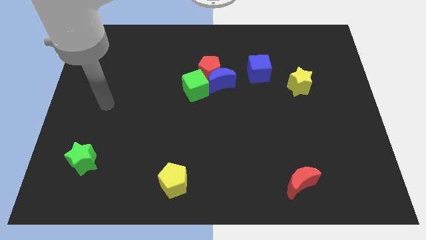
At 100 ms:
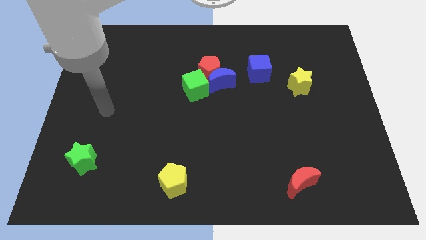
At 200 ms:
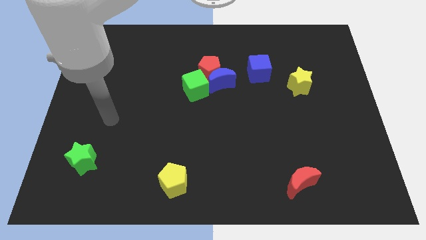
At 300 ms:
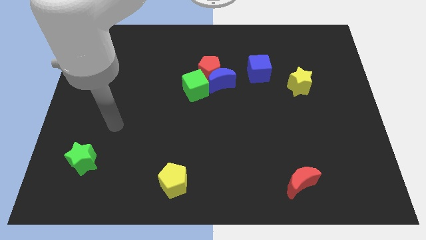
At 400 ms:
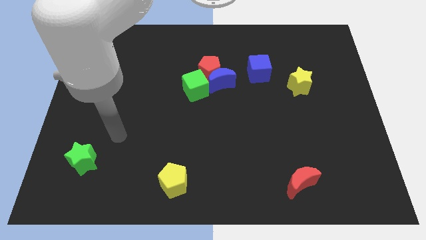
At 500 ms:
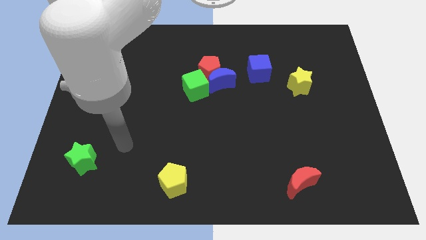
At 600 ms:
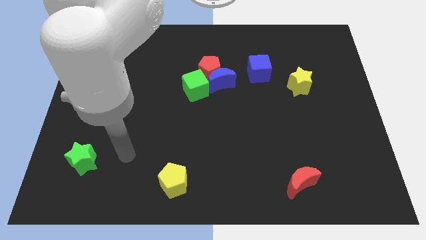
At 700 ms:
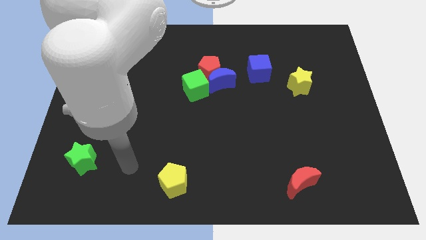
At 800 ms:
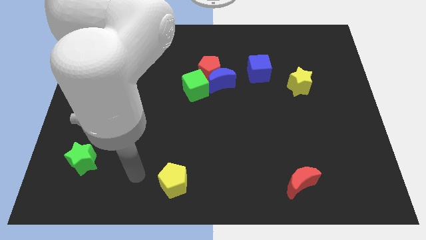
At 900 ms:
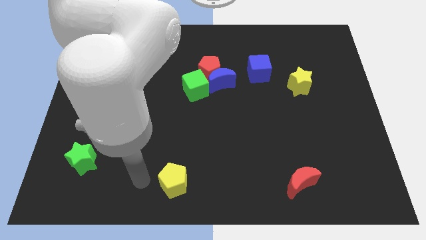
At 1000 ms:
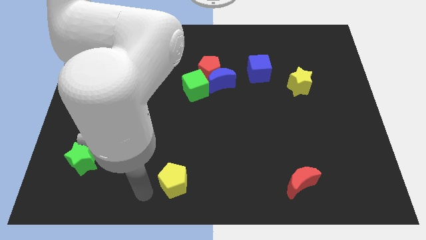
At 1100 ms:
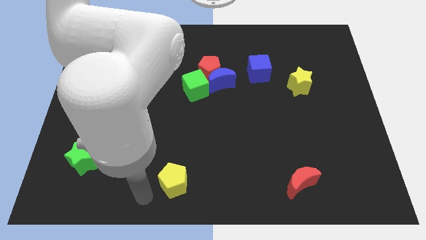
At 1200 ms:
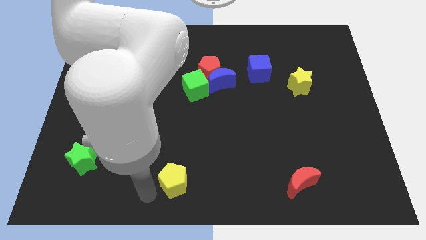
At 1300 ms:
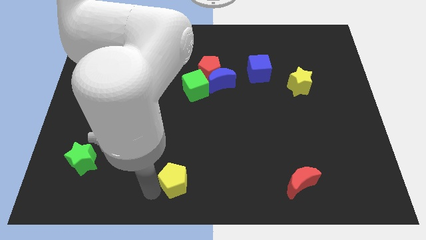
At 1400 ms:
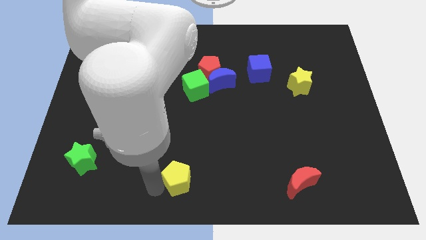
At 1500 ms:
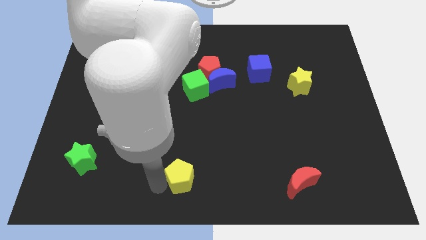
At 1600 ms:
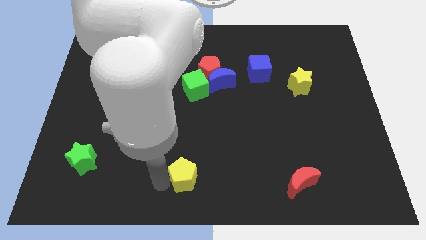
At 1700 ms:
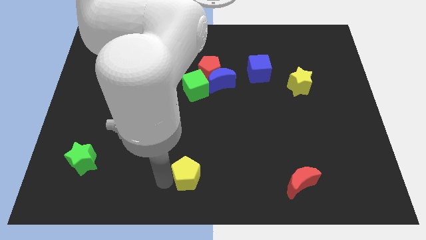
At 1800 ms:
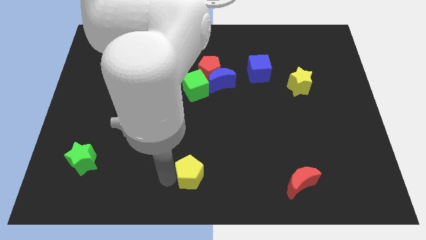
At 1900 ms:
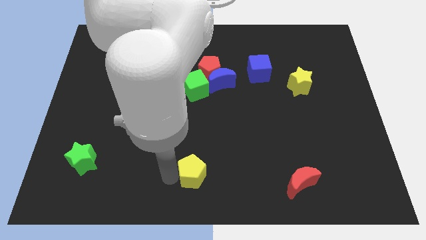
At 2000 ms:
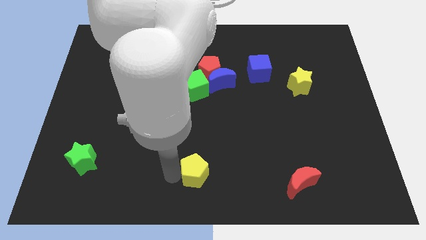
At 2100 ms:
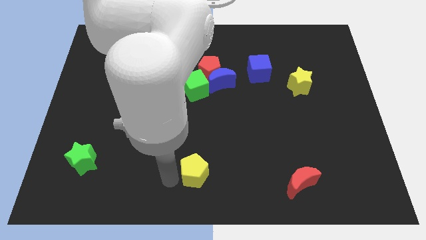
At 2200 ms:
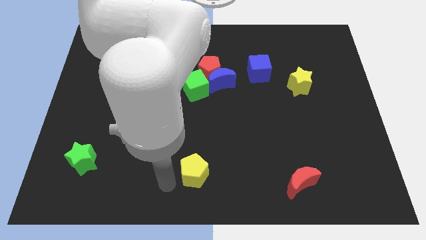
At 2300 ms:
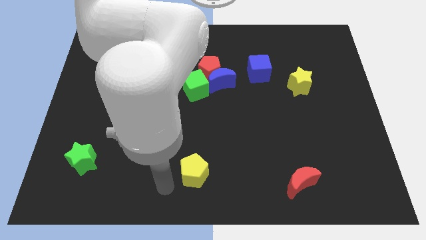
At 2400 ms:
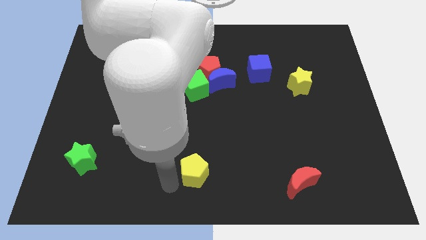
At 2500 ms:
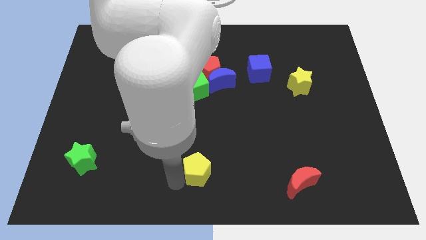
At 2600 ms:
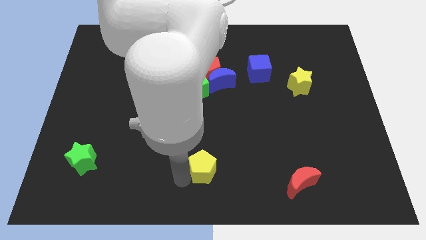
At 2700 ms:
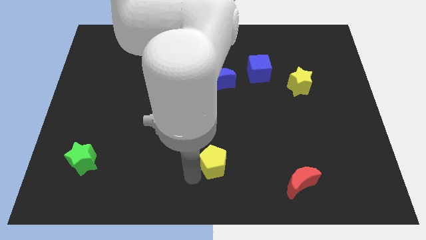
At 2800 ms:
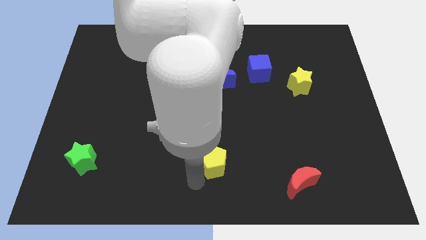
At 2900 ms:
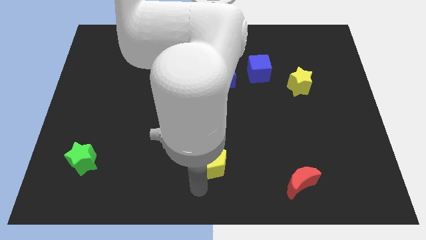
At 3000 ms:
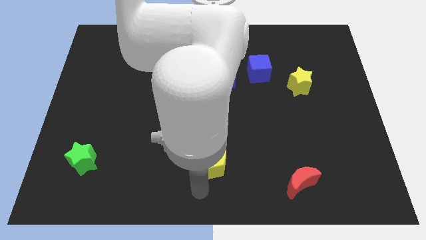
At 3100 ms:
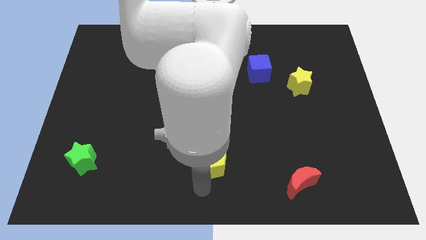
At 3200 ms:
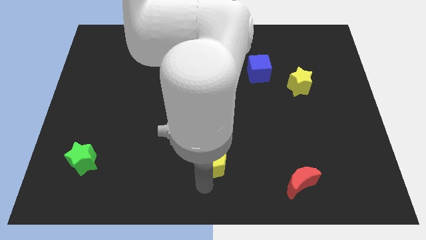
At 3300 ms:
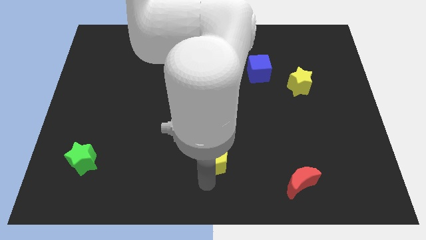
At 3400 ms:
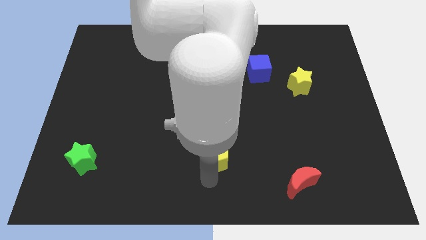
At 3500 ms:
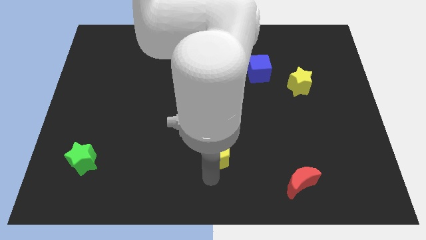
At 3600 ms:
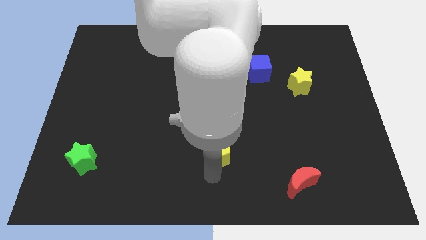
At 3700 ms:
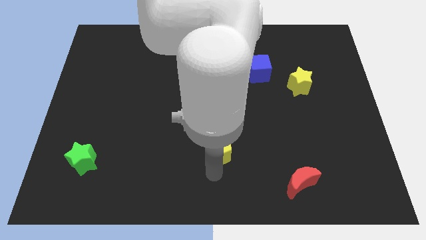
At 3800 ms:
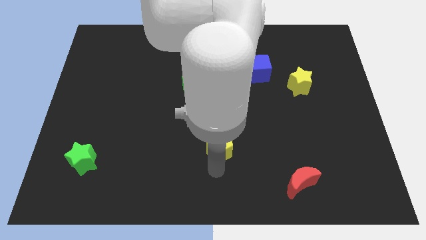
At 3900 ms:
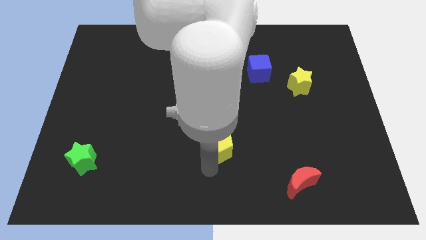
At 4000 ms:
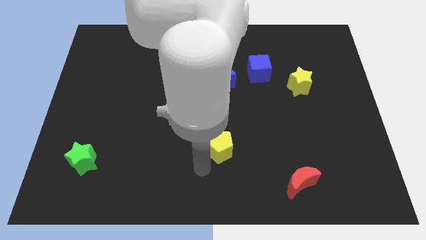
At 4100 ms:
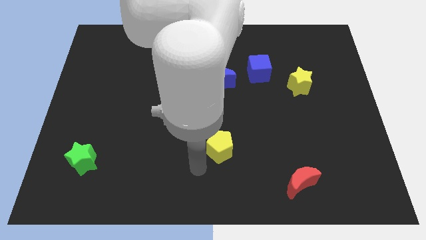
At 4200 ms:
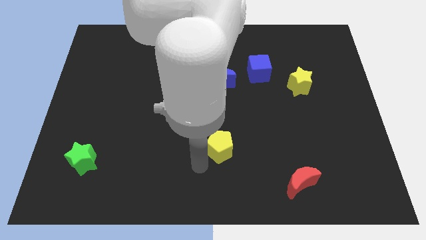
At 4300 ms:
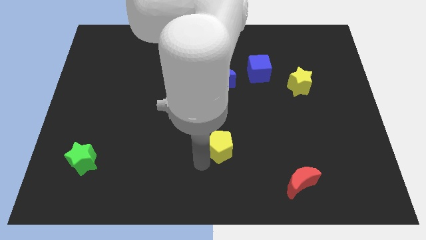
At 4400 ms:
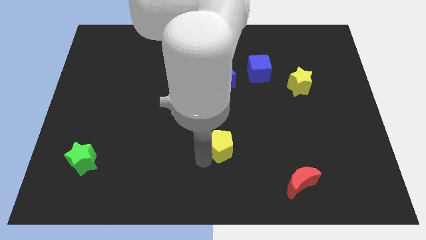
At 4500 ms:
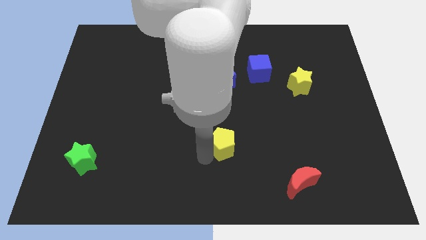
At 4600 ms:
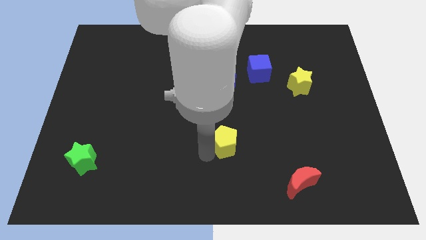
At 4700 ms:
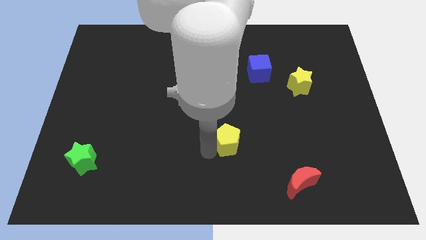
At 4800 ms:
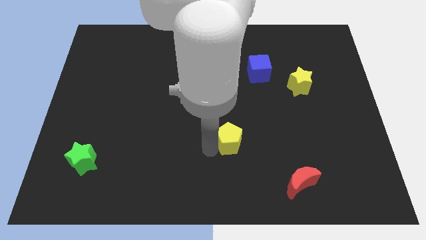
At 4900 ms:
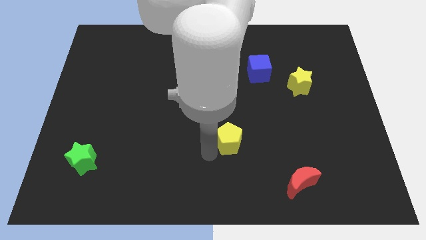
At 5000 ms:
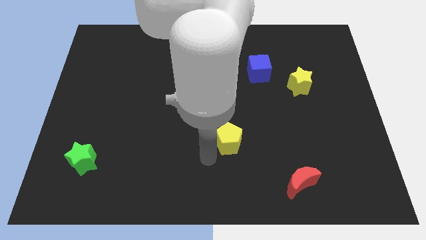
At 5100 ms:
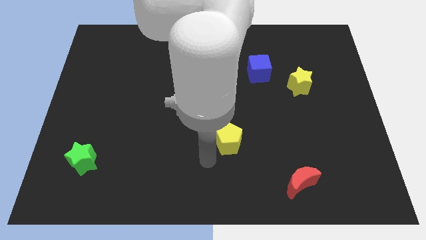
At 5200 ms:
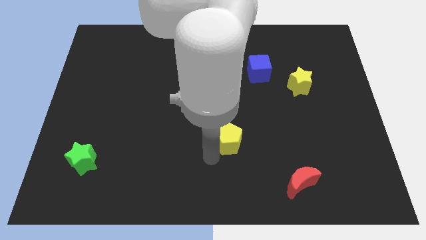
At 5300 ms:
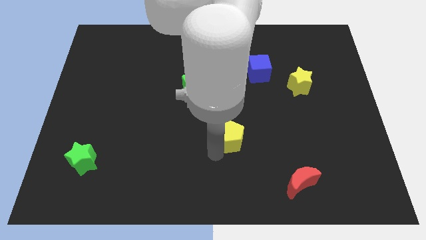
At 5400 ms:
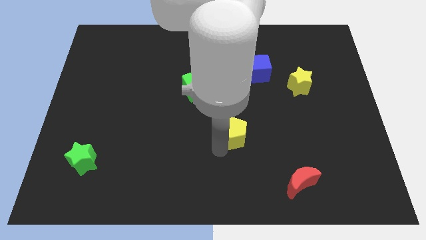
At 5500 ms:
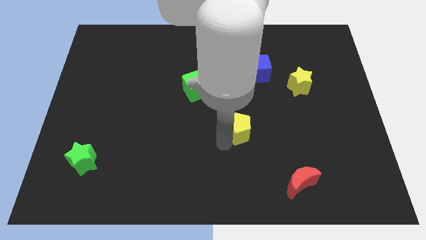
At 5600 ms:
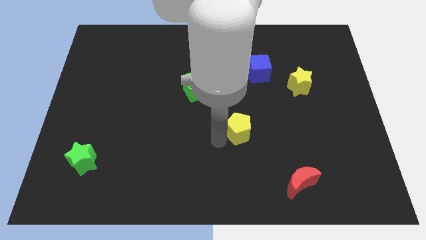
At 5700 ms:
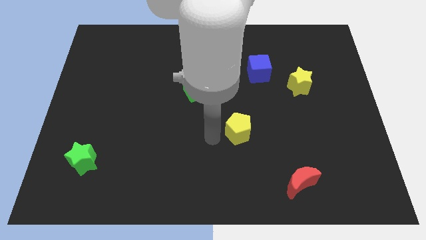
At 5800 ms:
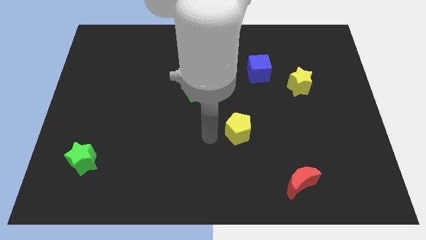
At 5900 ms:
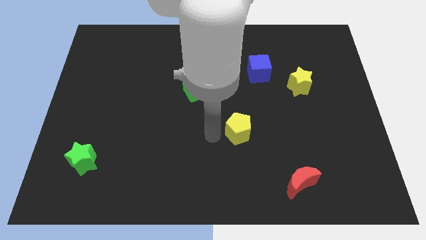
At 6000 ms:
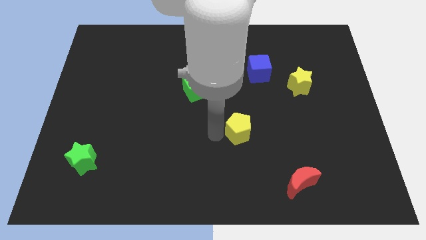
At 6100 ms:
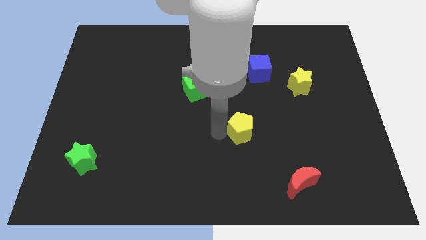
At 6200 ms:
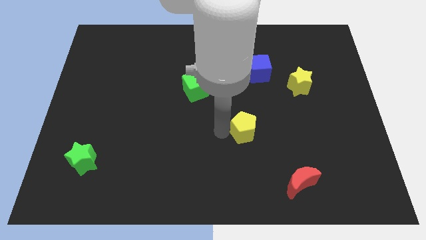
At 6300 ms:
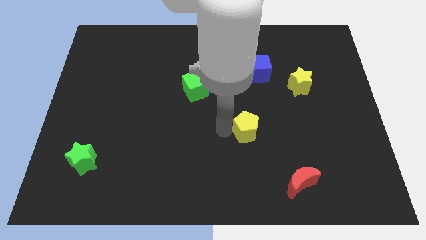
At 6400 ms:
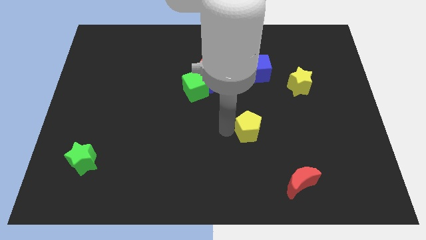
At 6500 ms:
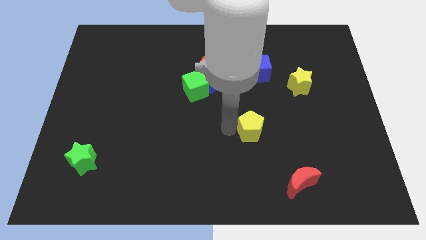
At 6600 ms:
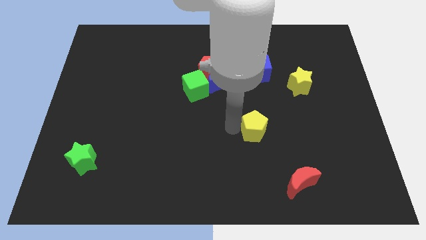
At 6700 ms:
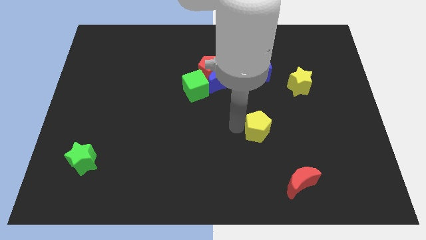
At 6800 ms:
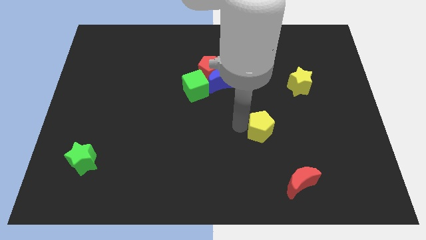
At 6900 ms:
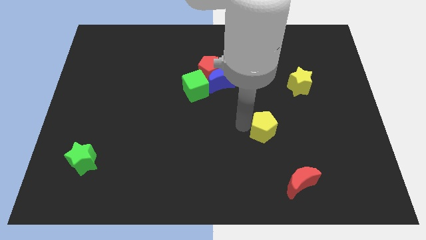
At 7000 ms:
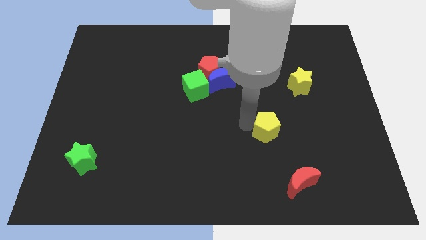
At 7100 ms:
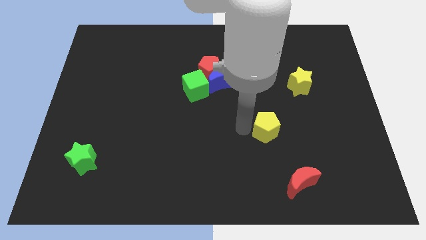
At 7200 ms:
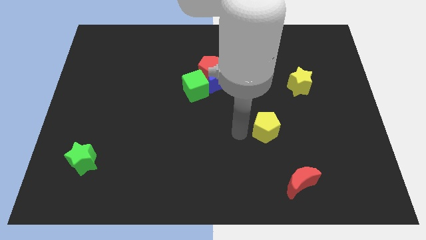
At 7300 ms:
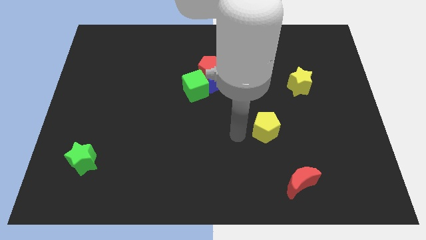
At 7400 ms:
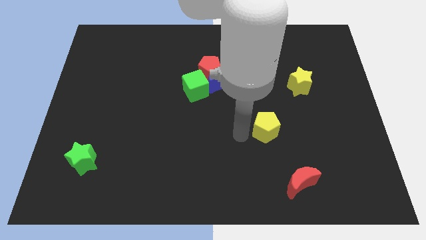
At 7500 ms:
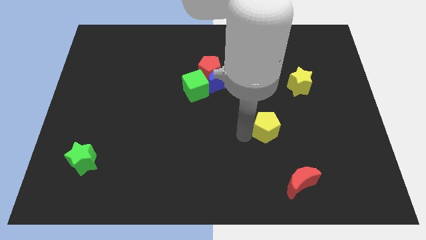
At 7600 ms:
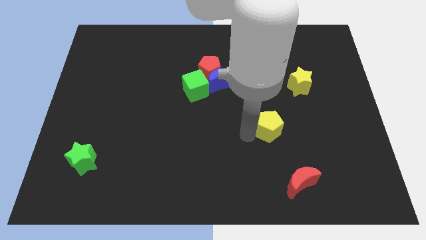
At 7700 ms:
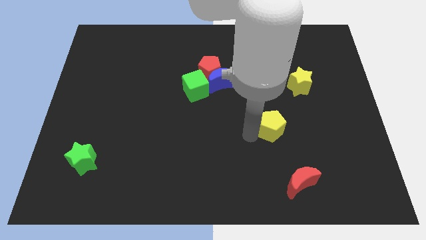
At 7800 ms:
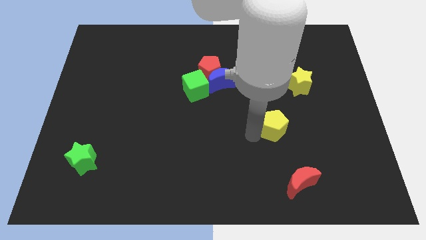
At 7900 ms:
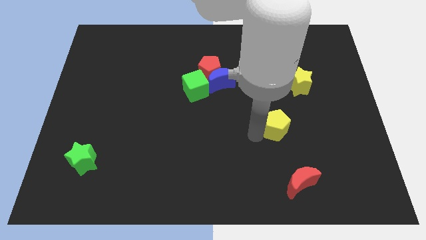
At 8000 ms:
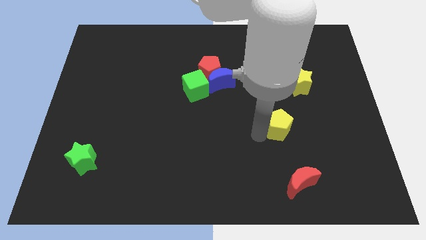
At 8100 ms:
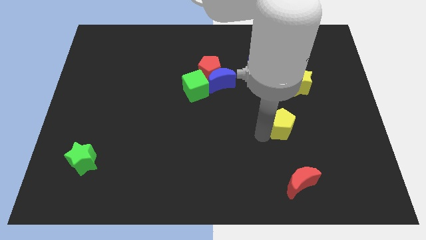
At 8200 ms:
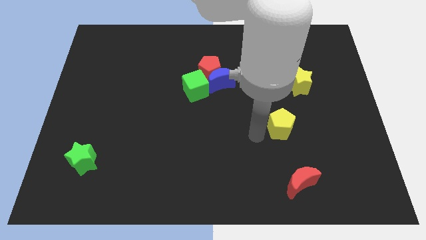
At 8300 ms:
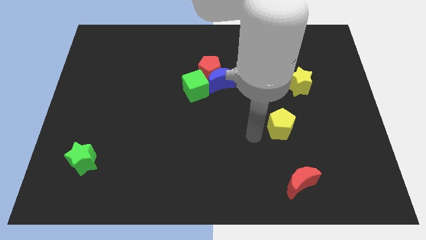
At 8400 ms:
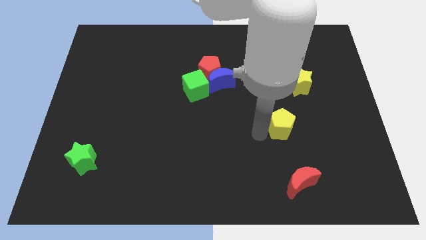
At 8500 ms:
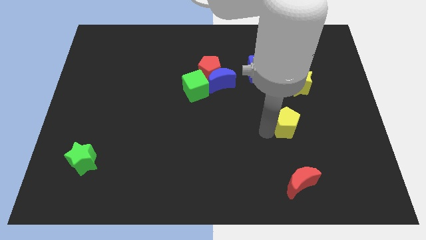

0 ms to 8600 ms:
push the yellow pentagon below the yellow star
